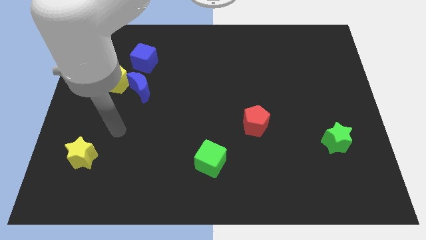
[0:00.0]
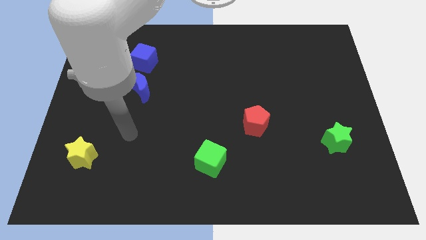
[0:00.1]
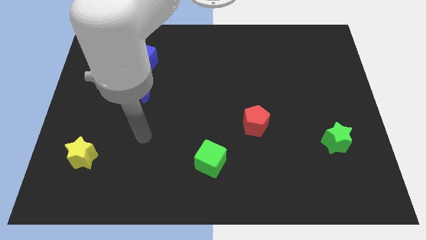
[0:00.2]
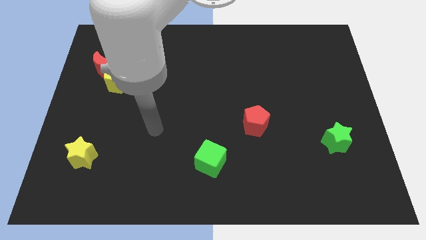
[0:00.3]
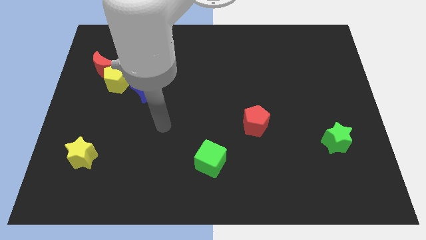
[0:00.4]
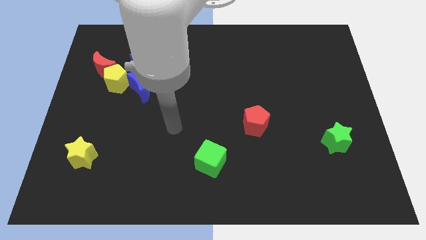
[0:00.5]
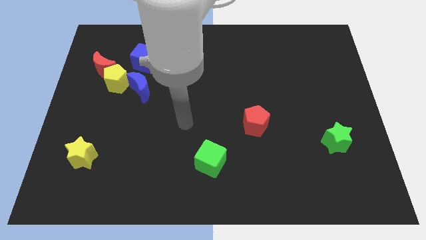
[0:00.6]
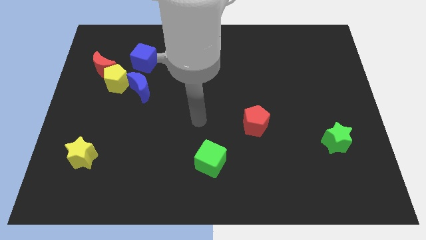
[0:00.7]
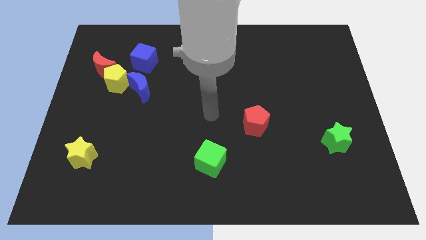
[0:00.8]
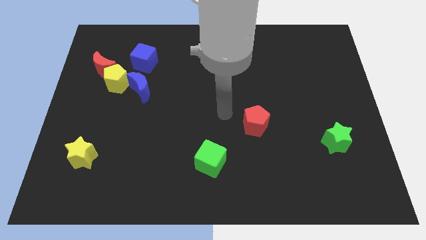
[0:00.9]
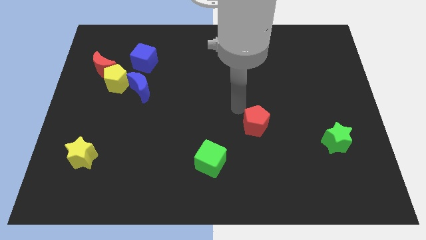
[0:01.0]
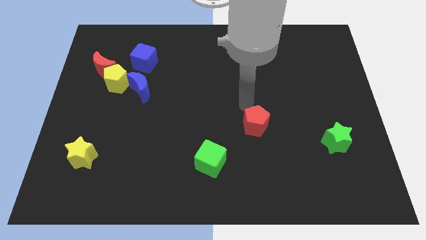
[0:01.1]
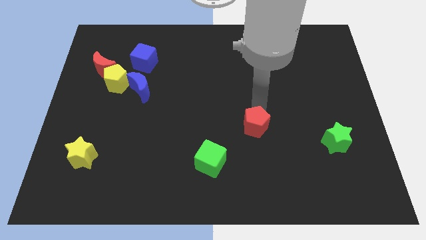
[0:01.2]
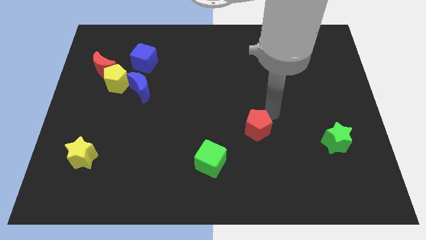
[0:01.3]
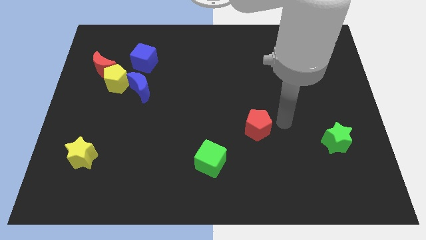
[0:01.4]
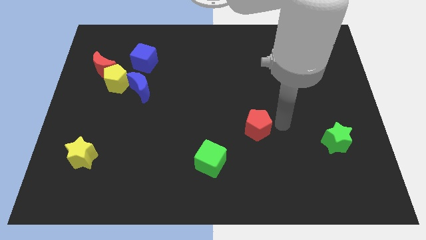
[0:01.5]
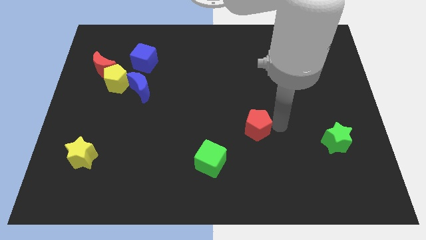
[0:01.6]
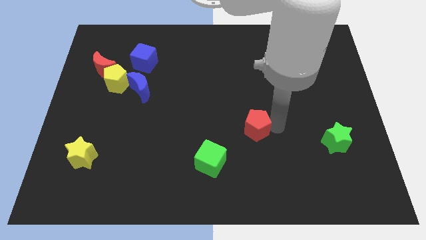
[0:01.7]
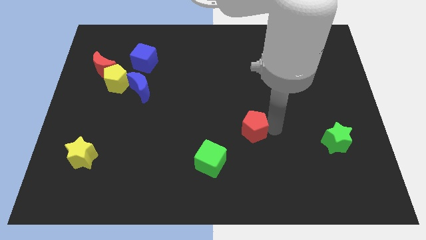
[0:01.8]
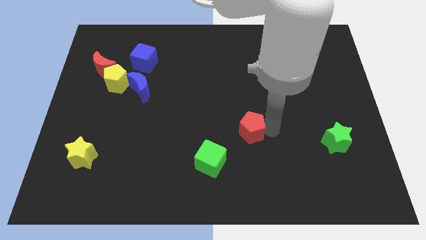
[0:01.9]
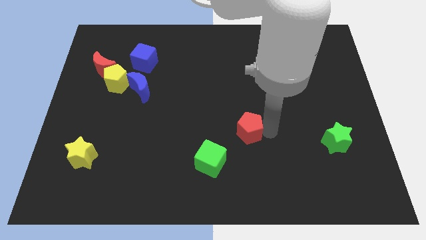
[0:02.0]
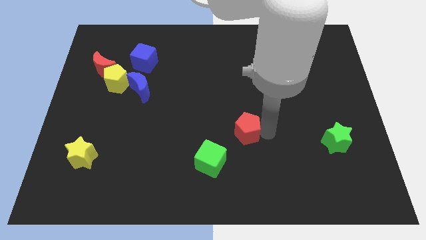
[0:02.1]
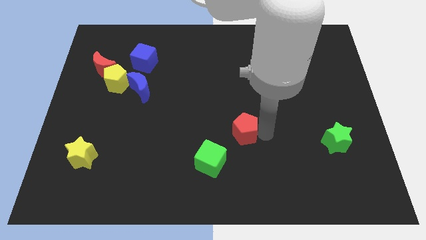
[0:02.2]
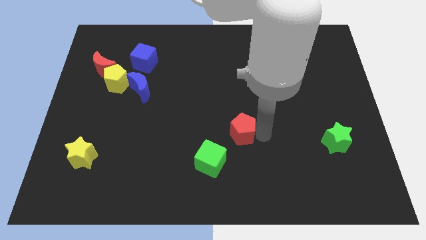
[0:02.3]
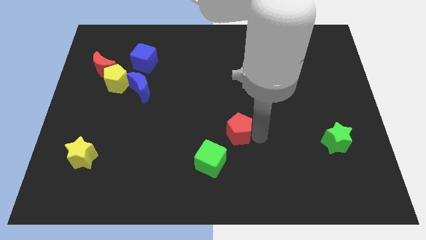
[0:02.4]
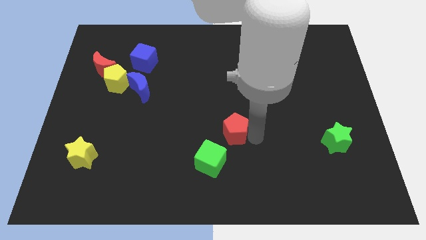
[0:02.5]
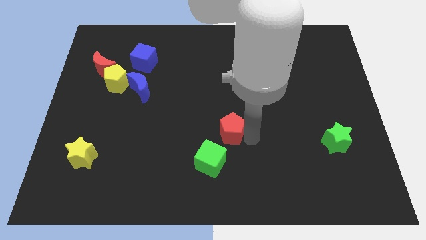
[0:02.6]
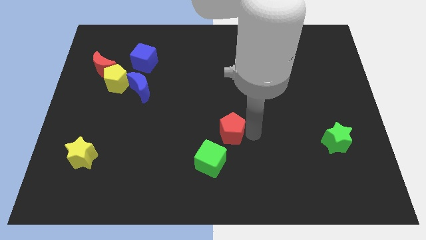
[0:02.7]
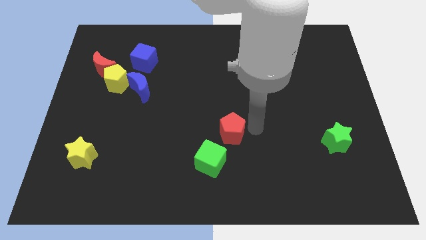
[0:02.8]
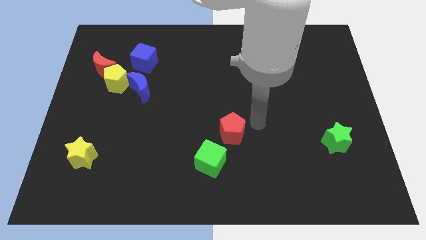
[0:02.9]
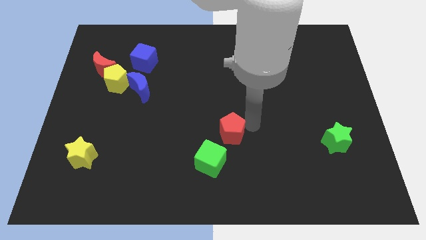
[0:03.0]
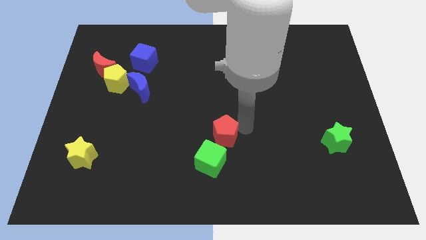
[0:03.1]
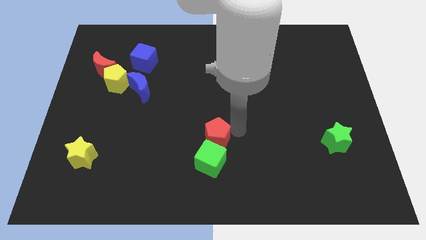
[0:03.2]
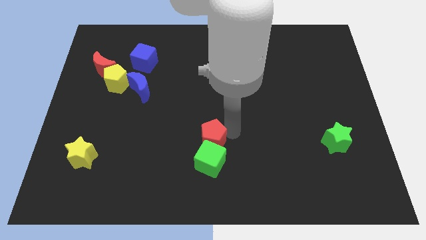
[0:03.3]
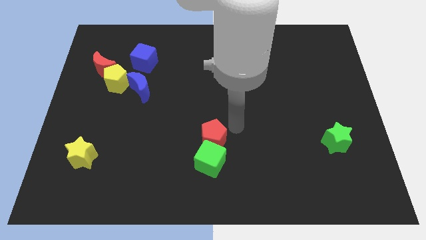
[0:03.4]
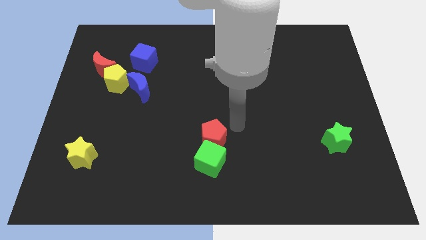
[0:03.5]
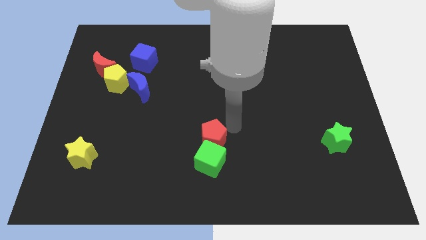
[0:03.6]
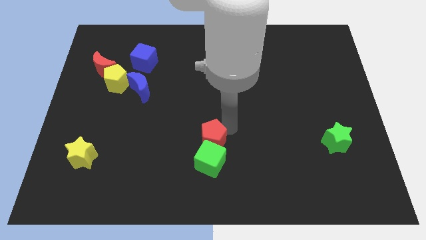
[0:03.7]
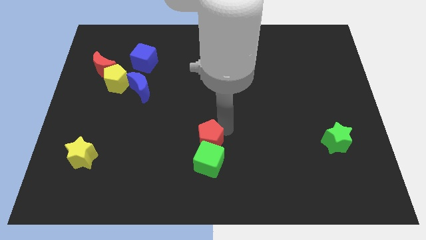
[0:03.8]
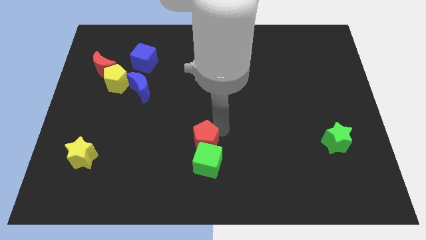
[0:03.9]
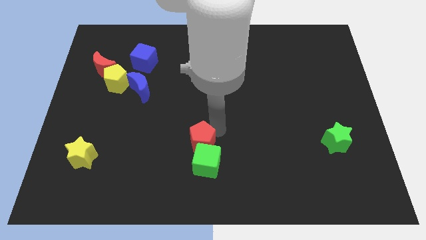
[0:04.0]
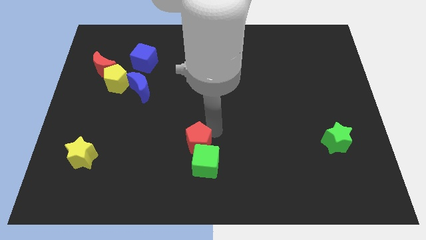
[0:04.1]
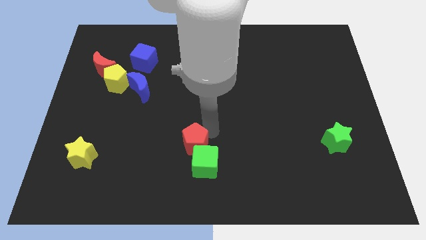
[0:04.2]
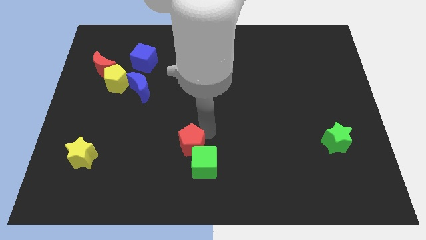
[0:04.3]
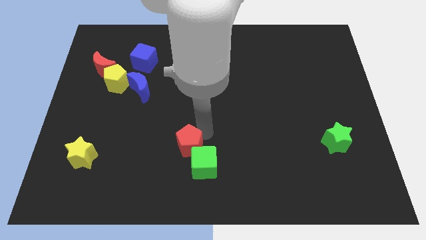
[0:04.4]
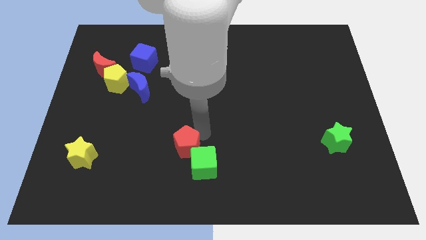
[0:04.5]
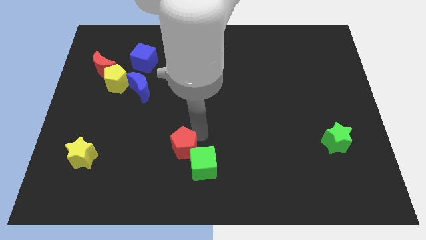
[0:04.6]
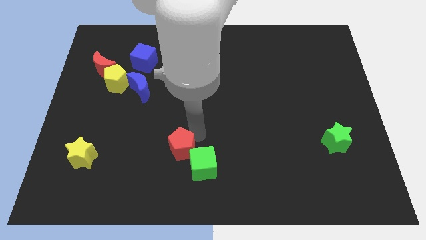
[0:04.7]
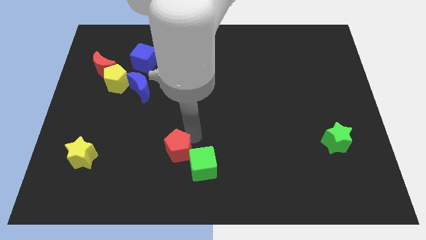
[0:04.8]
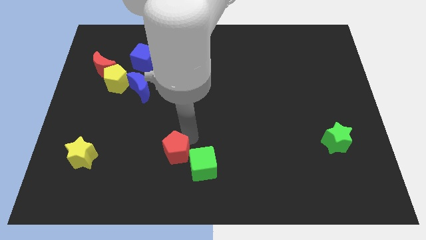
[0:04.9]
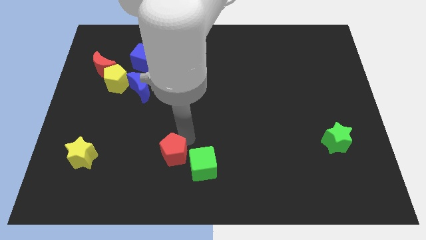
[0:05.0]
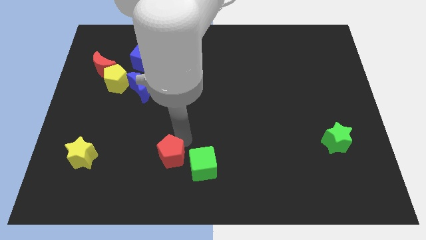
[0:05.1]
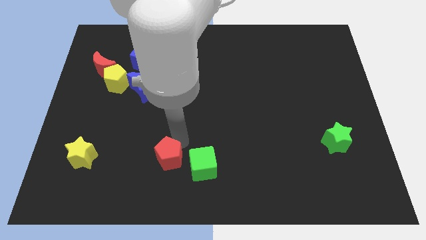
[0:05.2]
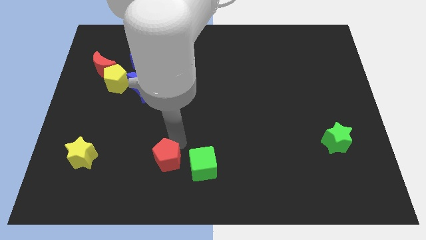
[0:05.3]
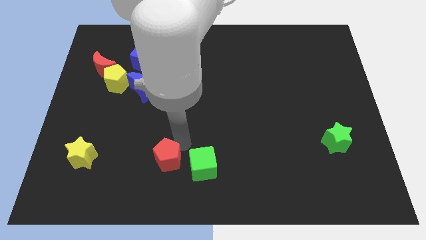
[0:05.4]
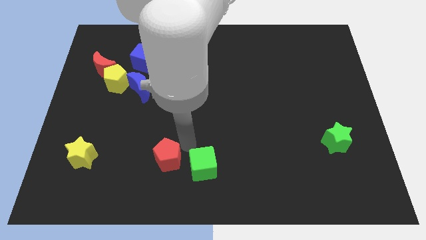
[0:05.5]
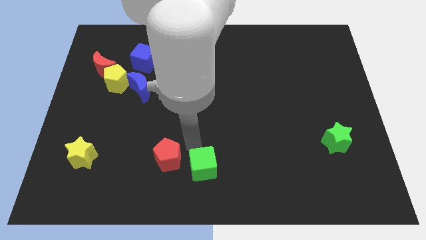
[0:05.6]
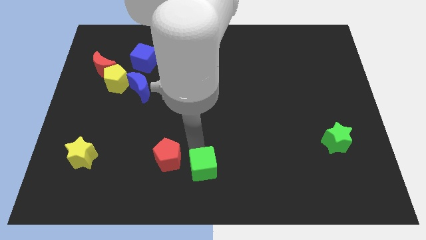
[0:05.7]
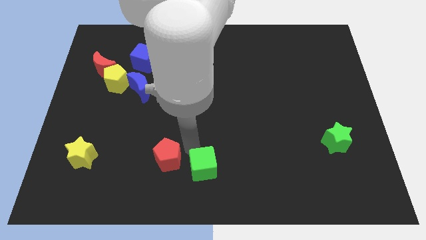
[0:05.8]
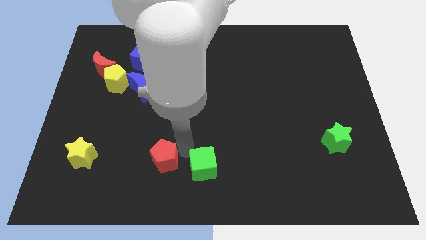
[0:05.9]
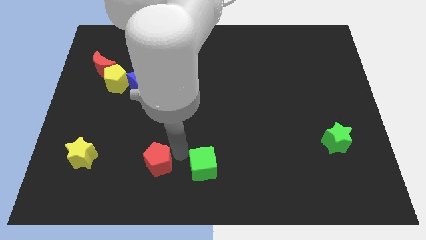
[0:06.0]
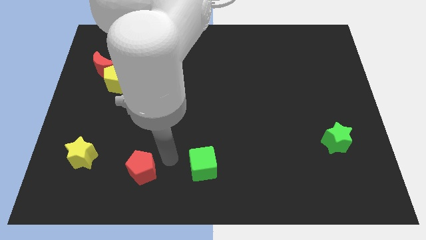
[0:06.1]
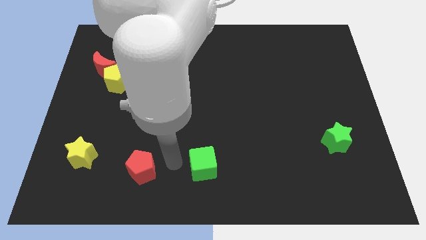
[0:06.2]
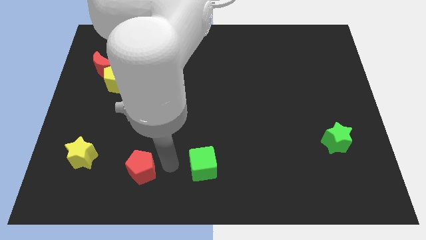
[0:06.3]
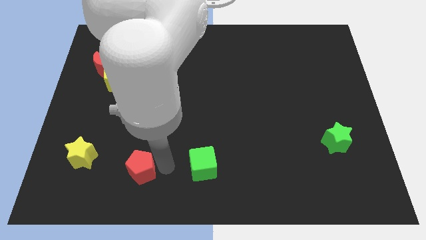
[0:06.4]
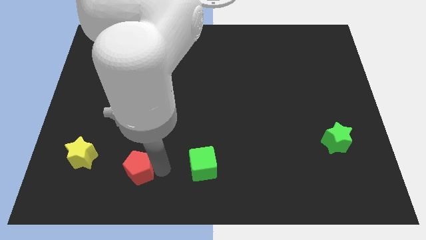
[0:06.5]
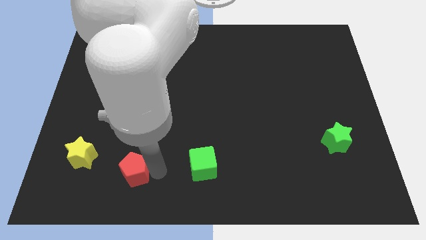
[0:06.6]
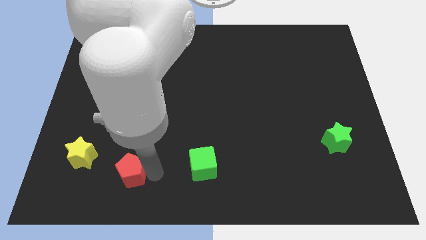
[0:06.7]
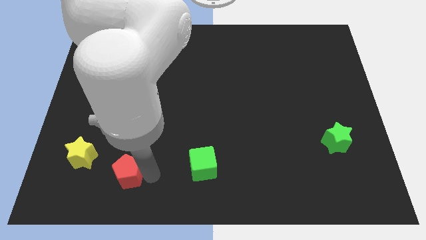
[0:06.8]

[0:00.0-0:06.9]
put the red pentagon to the bottom right side of the yellow star

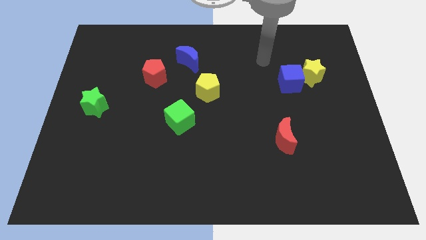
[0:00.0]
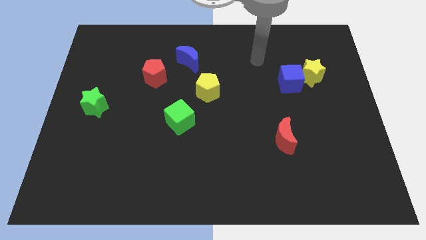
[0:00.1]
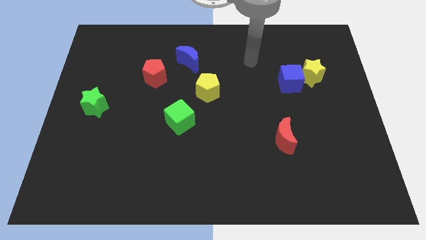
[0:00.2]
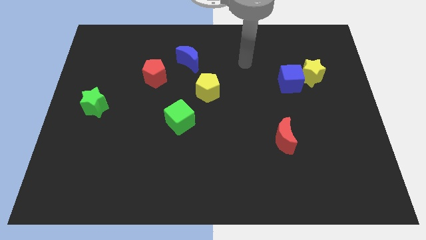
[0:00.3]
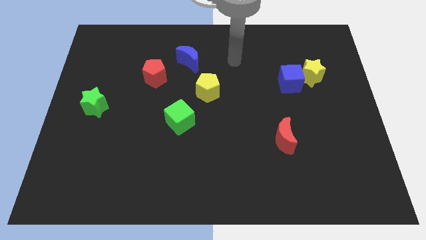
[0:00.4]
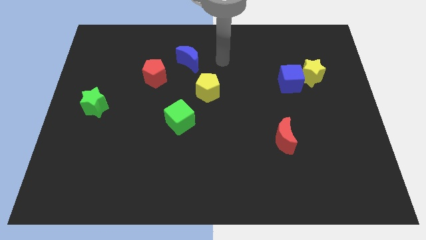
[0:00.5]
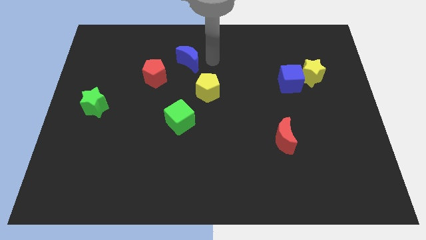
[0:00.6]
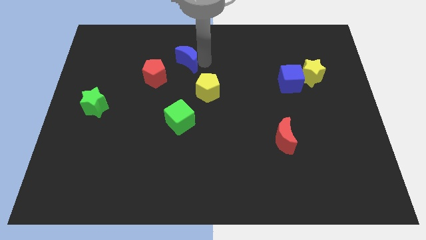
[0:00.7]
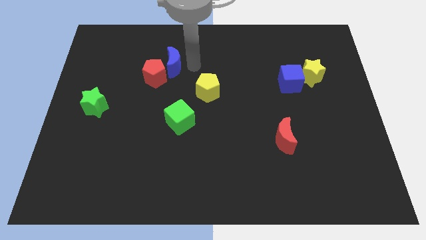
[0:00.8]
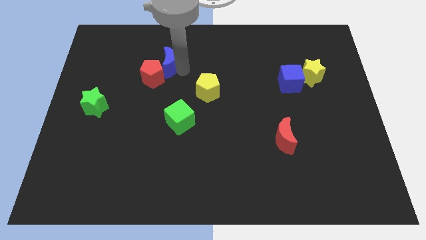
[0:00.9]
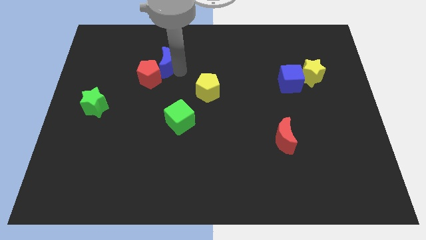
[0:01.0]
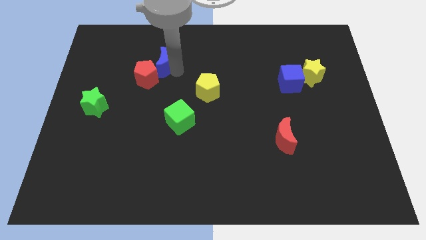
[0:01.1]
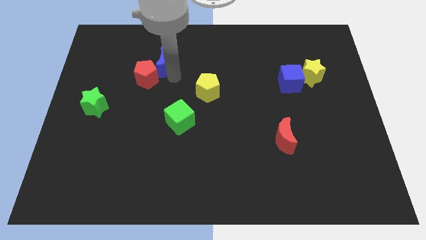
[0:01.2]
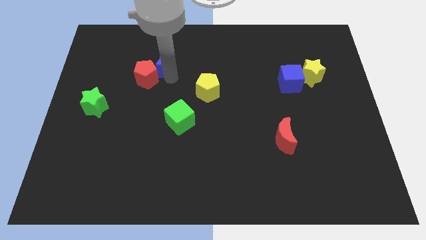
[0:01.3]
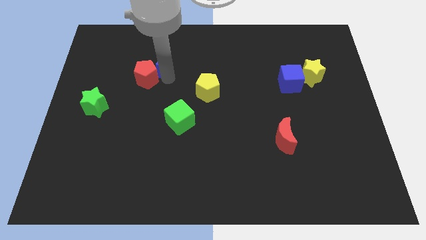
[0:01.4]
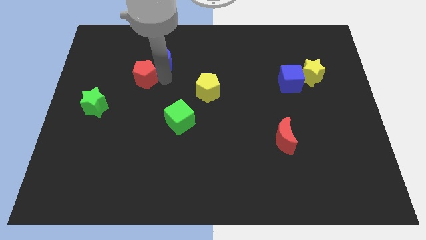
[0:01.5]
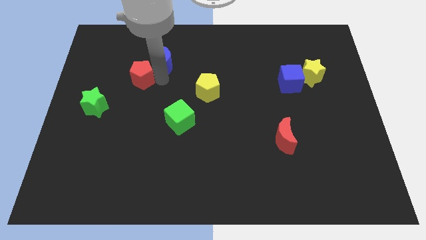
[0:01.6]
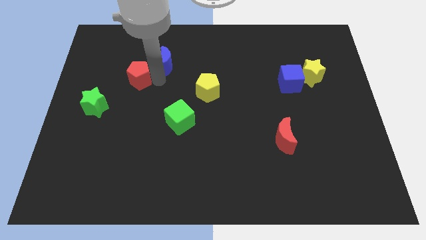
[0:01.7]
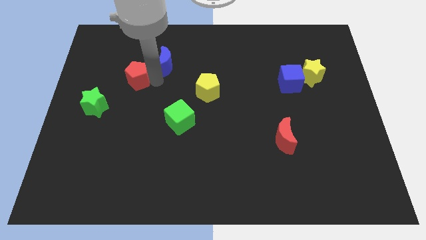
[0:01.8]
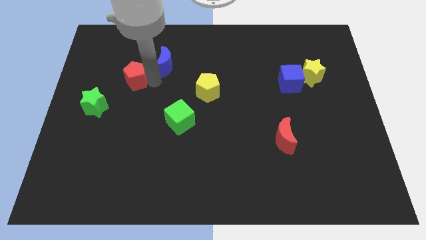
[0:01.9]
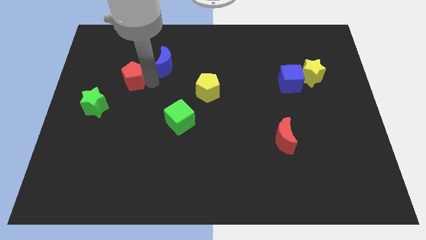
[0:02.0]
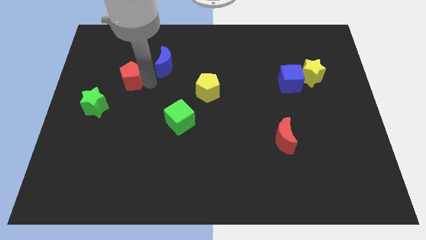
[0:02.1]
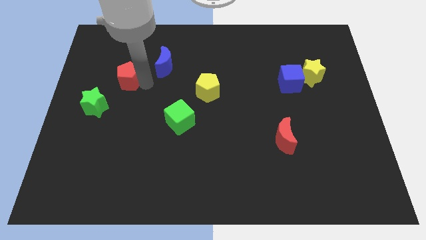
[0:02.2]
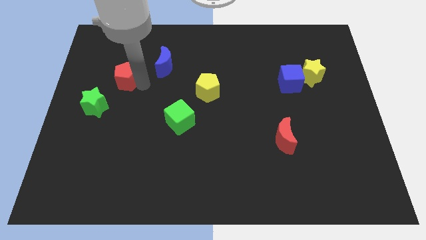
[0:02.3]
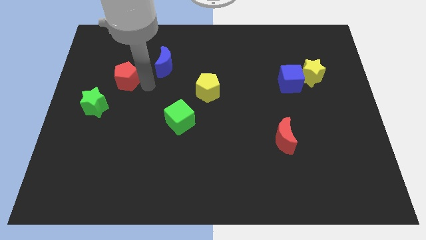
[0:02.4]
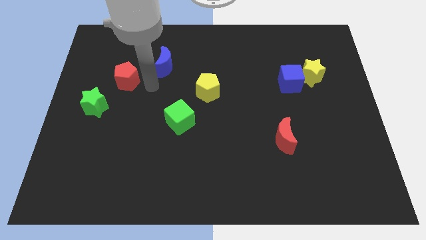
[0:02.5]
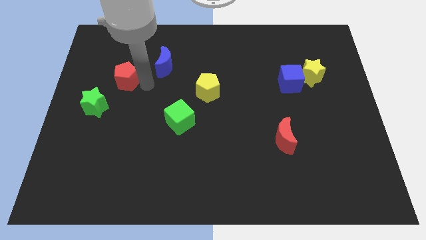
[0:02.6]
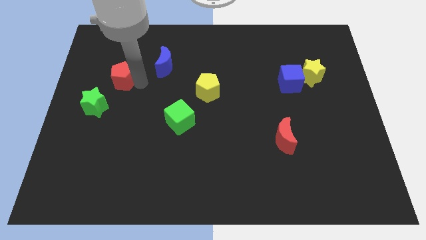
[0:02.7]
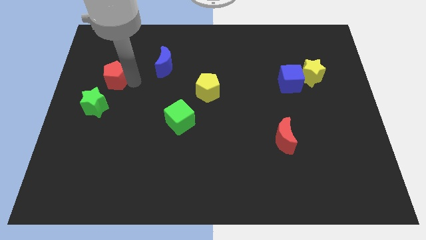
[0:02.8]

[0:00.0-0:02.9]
move the red pentagon to the top side of the green star
